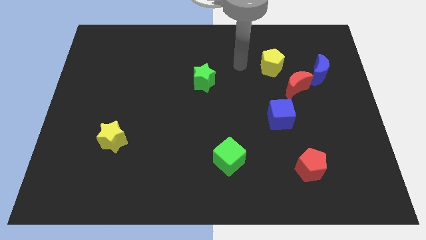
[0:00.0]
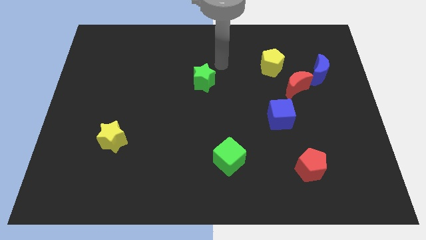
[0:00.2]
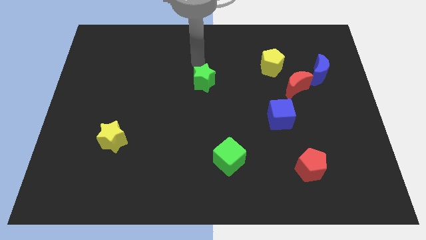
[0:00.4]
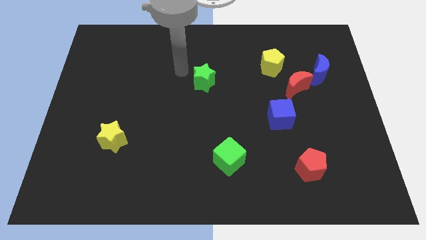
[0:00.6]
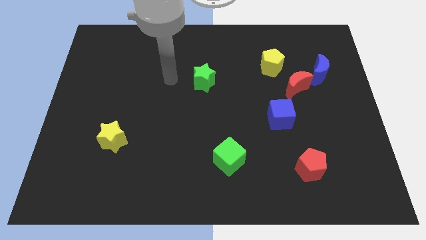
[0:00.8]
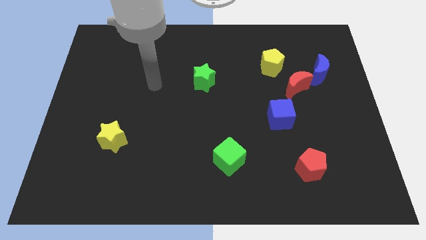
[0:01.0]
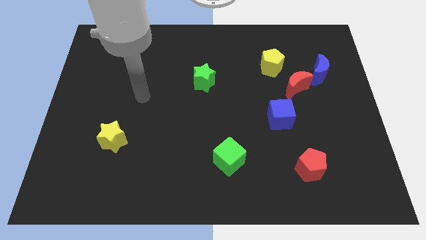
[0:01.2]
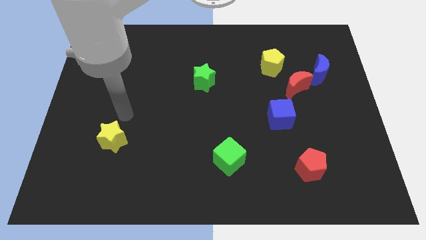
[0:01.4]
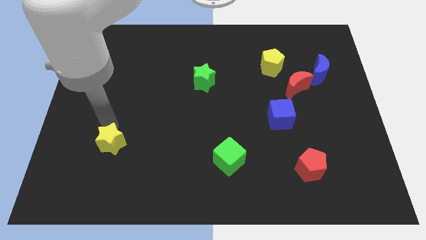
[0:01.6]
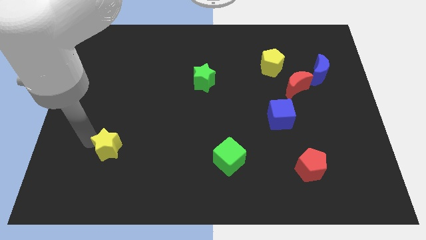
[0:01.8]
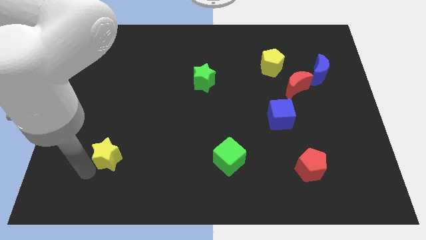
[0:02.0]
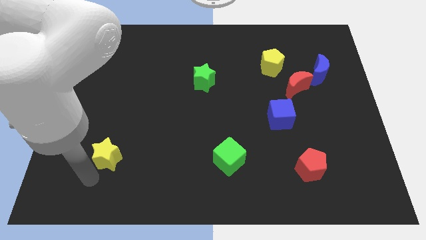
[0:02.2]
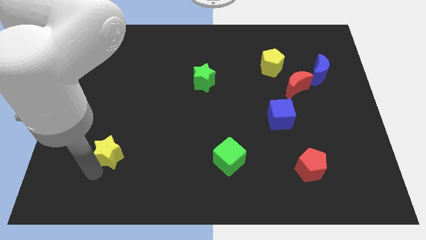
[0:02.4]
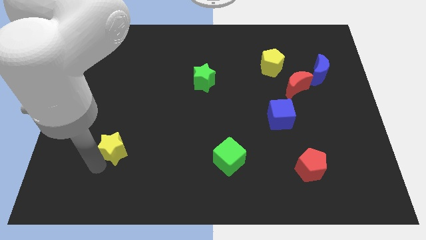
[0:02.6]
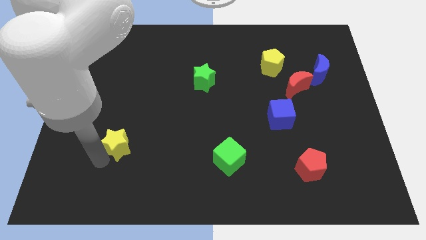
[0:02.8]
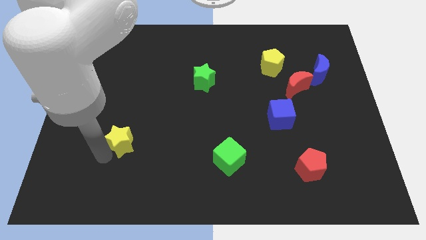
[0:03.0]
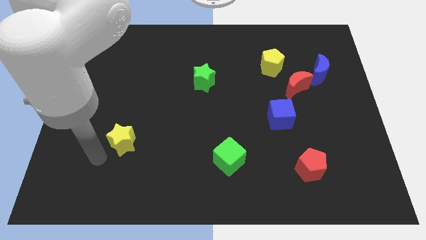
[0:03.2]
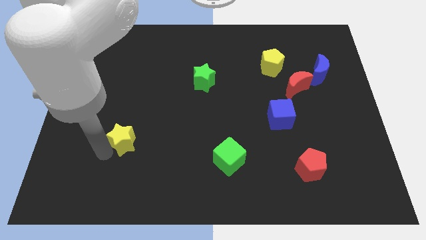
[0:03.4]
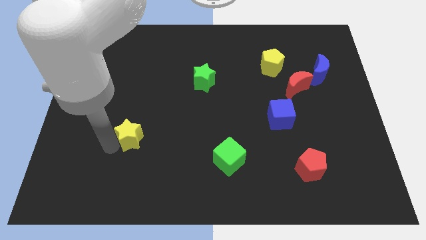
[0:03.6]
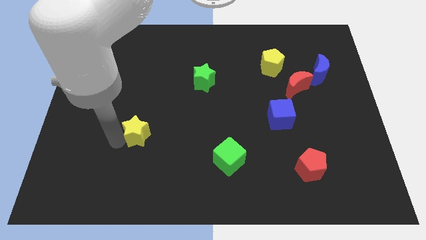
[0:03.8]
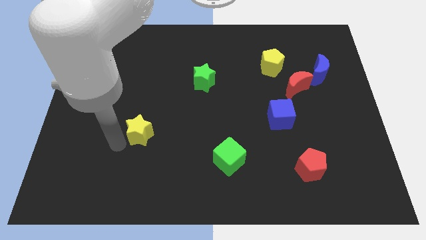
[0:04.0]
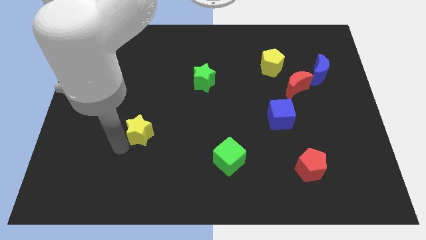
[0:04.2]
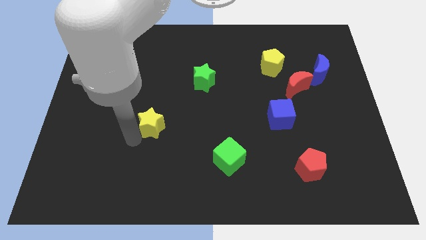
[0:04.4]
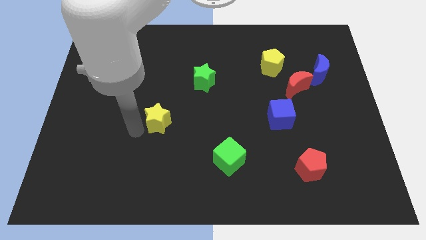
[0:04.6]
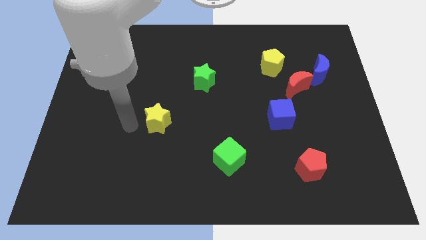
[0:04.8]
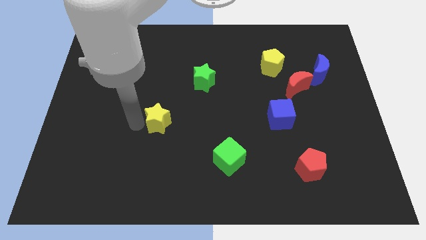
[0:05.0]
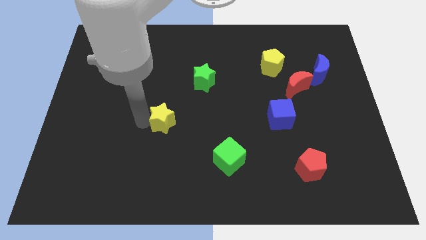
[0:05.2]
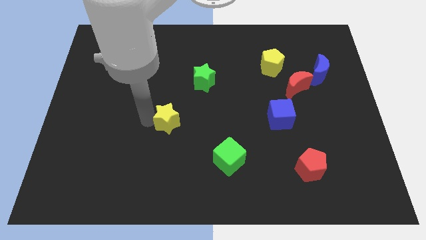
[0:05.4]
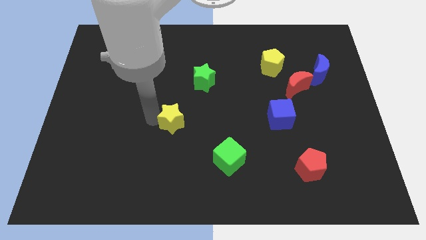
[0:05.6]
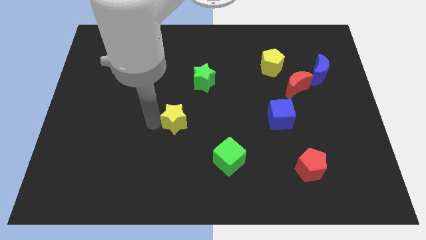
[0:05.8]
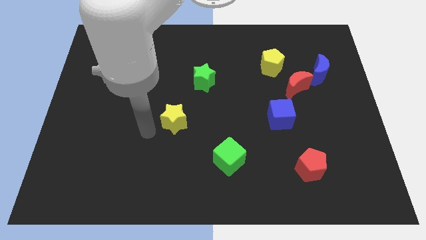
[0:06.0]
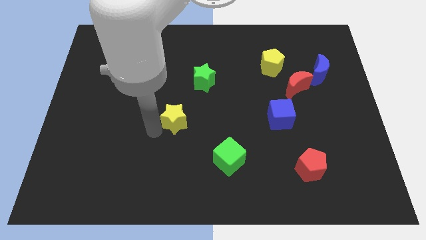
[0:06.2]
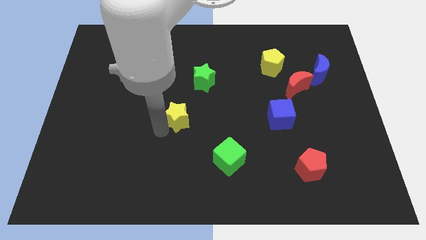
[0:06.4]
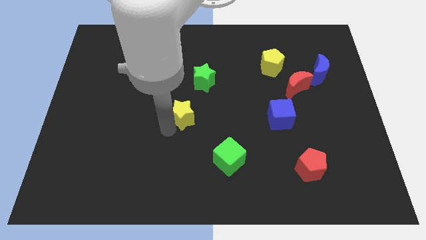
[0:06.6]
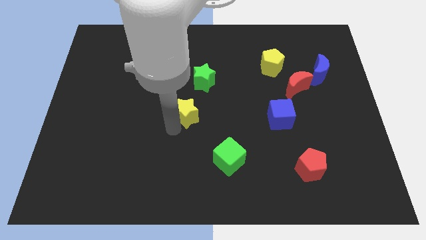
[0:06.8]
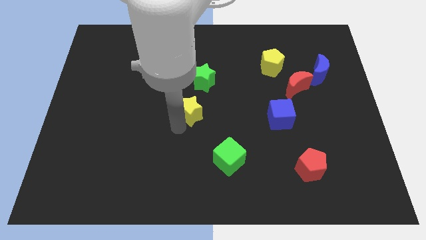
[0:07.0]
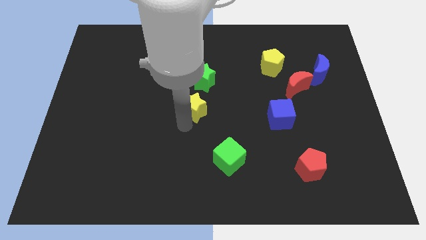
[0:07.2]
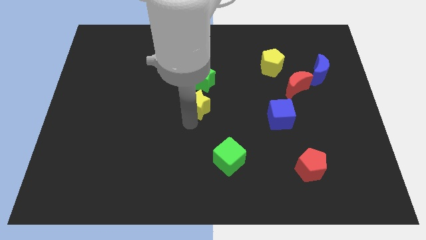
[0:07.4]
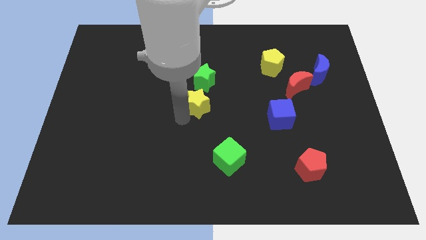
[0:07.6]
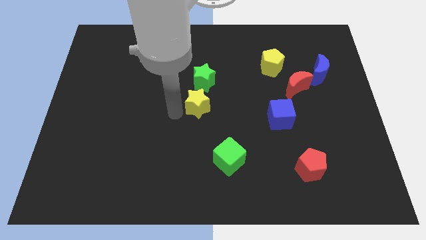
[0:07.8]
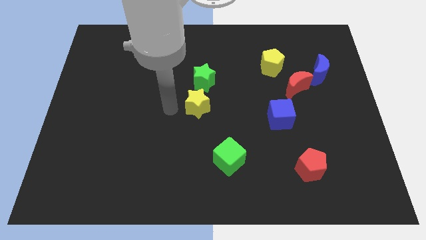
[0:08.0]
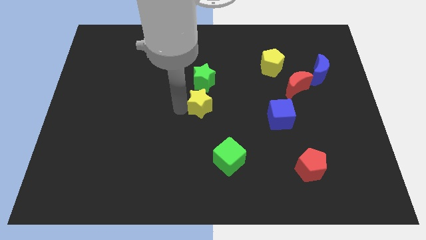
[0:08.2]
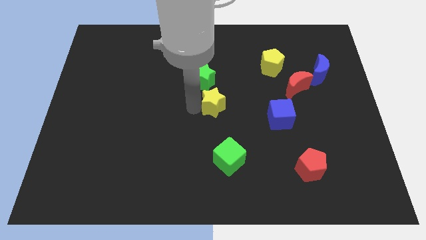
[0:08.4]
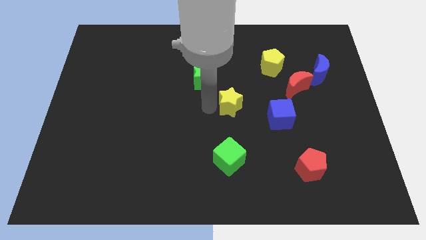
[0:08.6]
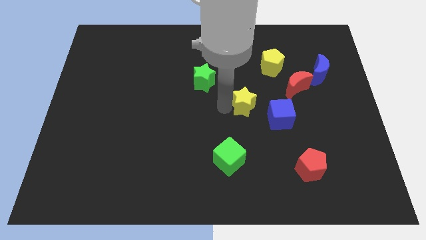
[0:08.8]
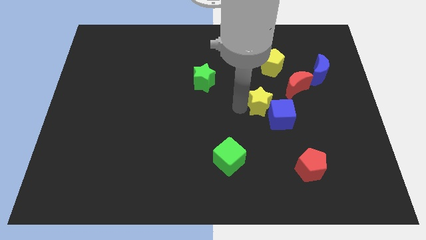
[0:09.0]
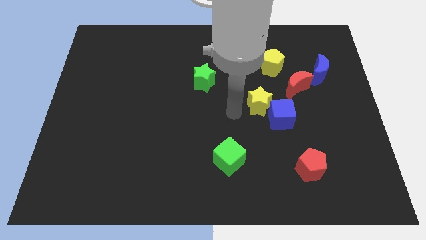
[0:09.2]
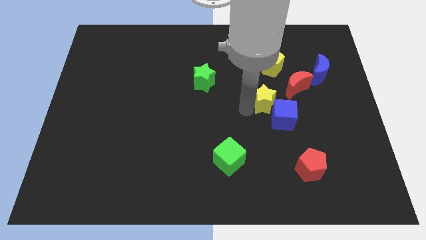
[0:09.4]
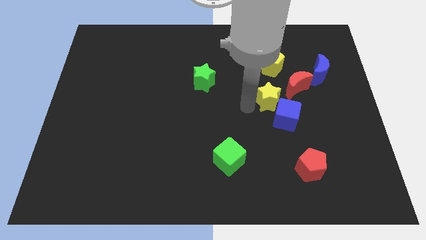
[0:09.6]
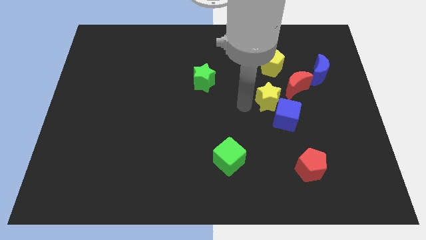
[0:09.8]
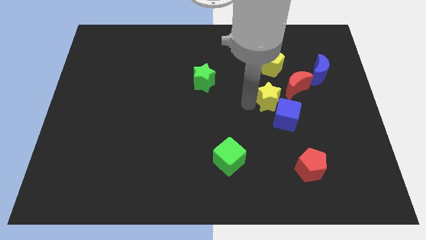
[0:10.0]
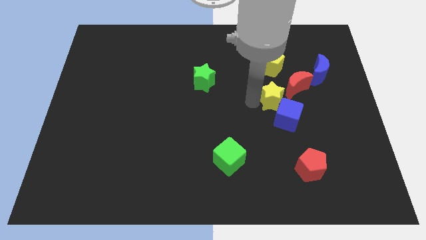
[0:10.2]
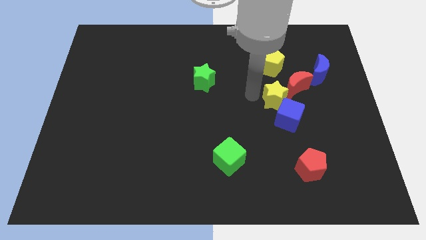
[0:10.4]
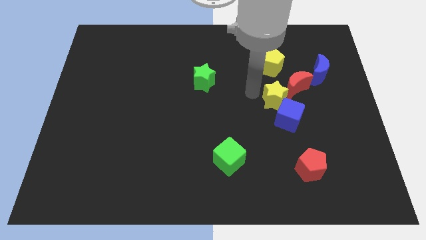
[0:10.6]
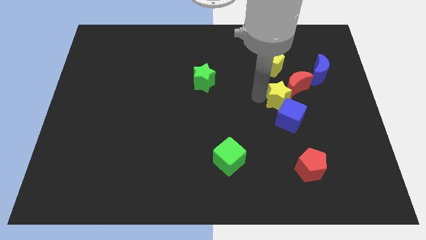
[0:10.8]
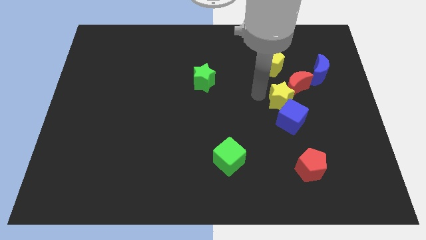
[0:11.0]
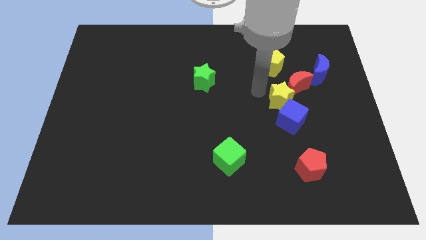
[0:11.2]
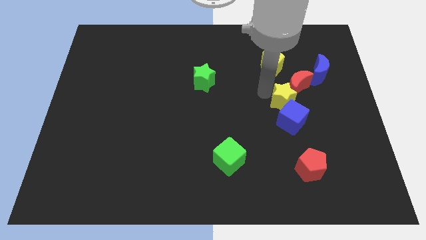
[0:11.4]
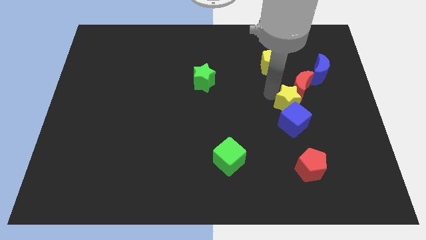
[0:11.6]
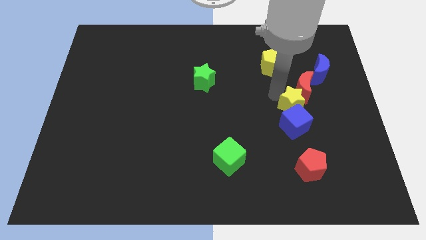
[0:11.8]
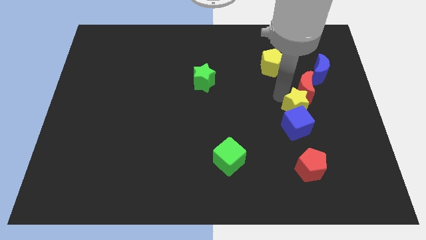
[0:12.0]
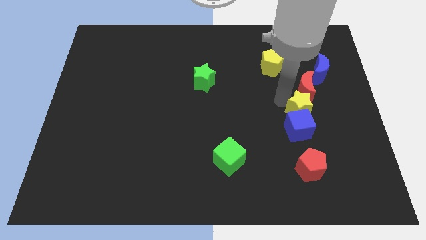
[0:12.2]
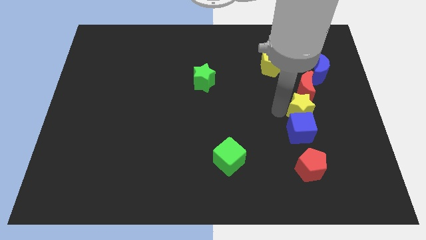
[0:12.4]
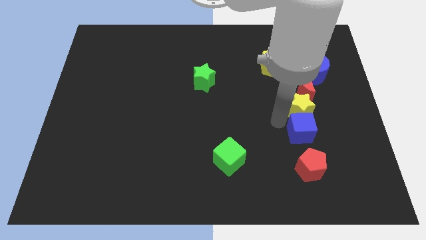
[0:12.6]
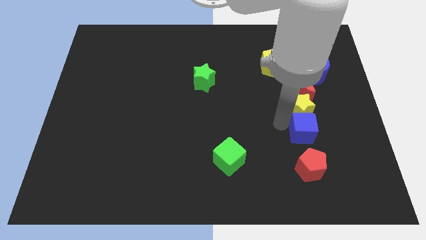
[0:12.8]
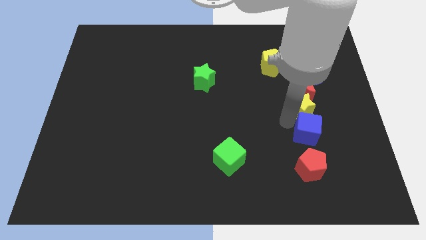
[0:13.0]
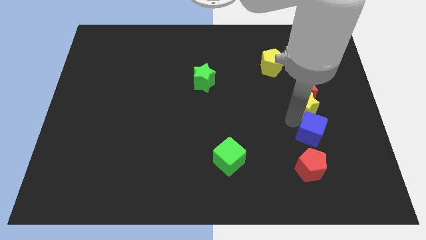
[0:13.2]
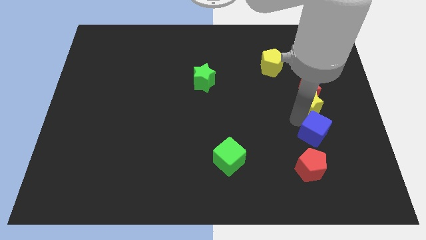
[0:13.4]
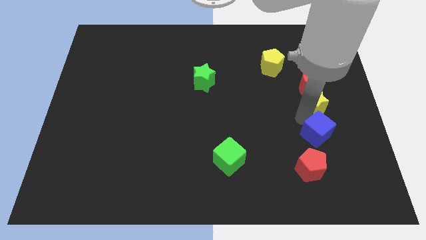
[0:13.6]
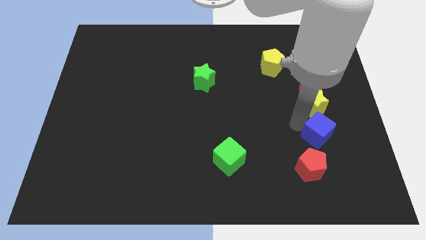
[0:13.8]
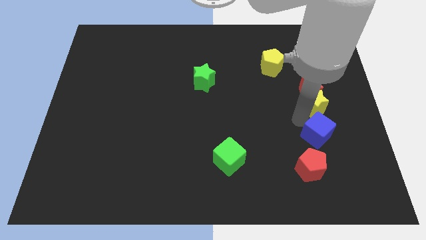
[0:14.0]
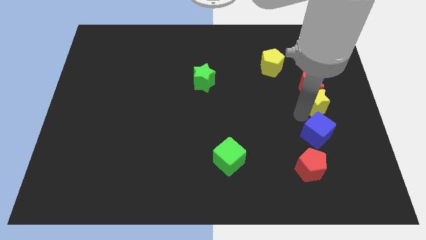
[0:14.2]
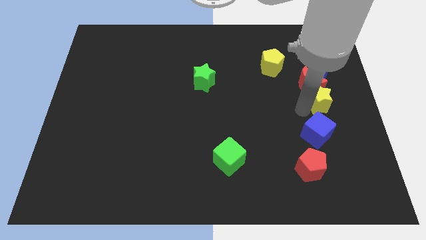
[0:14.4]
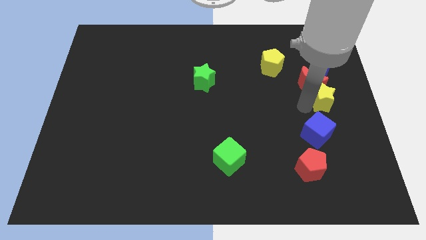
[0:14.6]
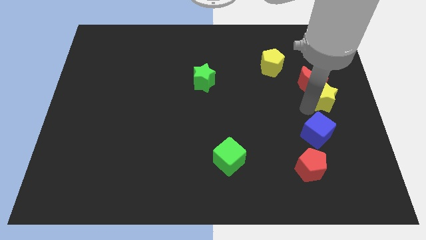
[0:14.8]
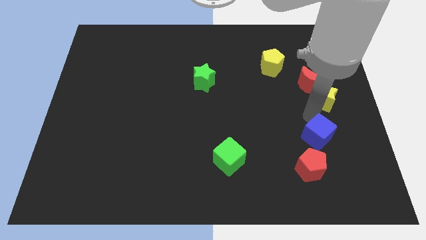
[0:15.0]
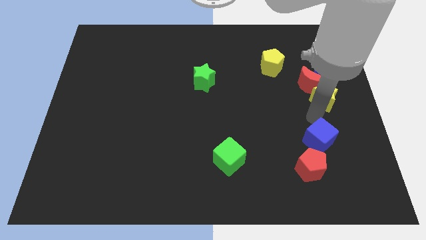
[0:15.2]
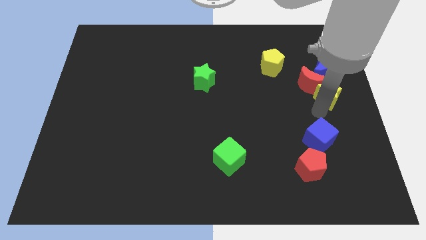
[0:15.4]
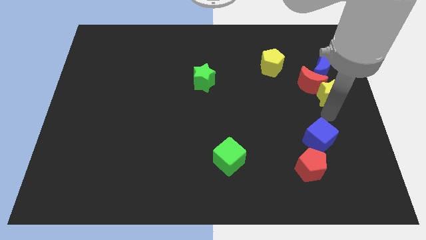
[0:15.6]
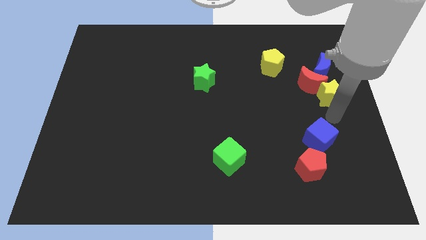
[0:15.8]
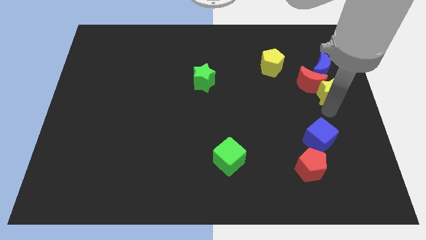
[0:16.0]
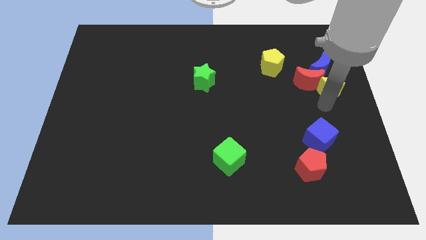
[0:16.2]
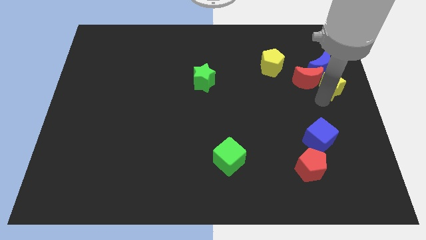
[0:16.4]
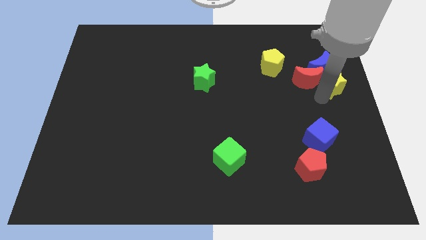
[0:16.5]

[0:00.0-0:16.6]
slide the yellow star close to the blue moon
